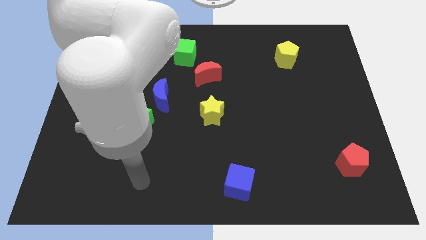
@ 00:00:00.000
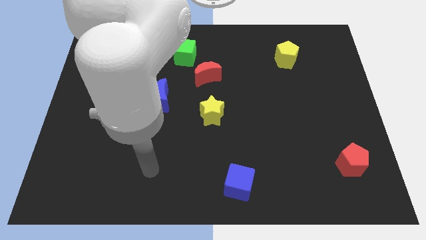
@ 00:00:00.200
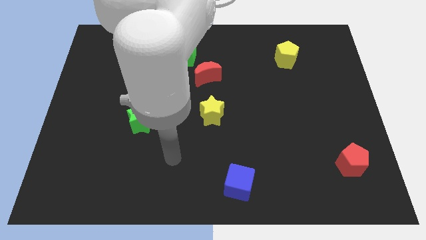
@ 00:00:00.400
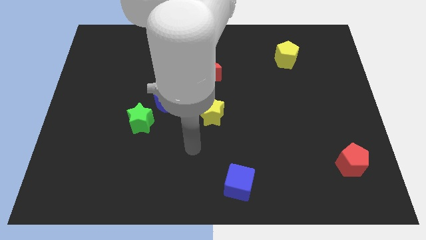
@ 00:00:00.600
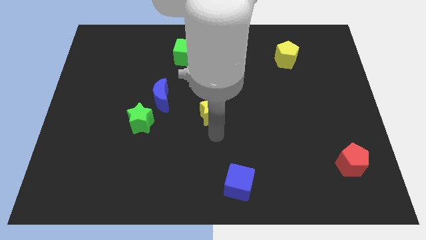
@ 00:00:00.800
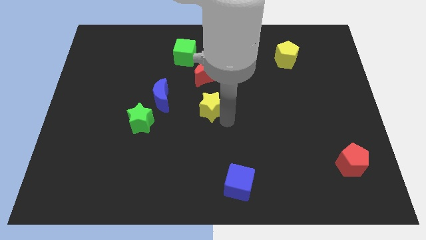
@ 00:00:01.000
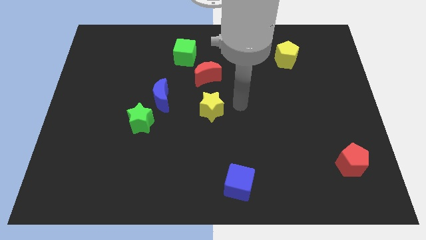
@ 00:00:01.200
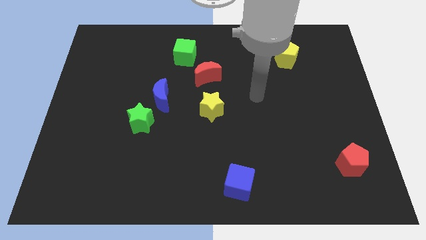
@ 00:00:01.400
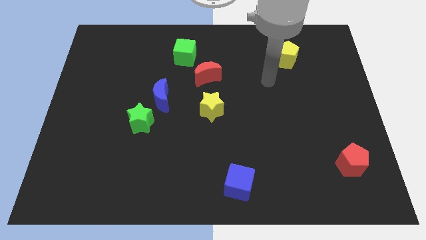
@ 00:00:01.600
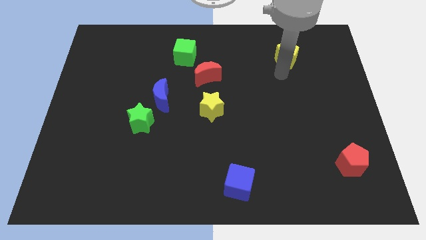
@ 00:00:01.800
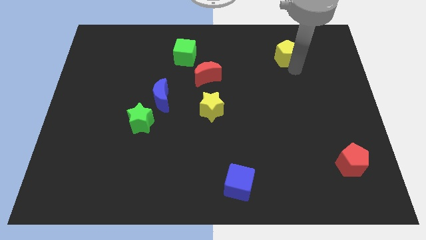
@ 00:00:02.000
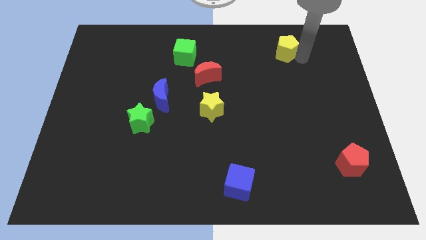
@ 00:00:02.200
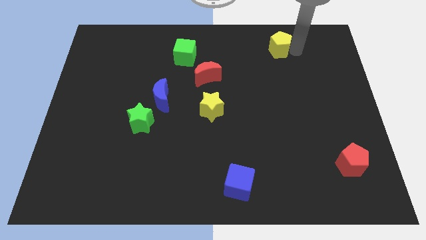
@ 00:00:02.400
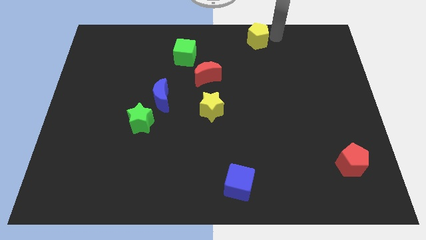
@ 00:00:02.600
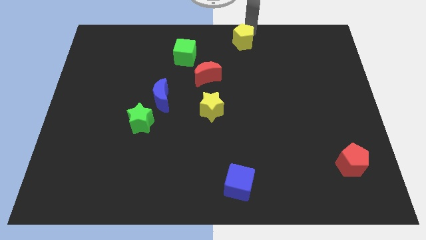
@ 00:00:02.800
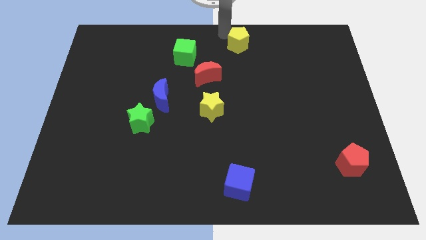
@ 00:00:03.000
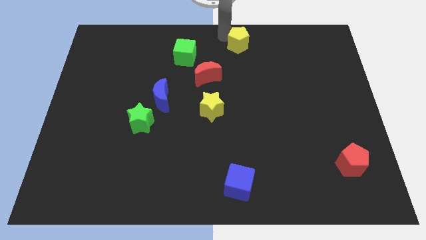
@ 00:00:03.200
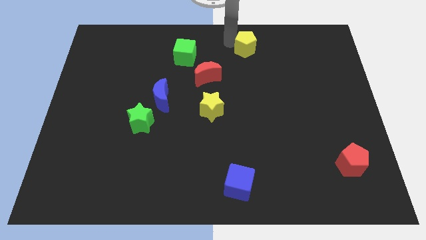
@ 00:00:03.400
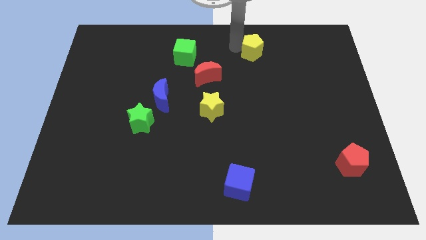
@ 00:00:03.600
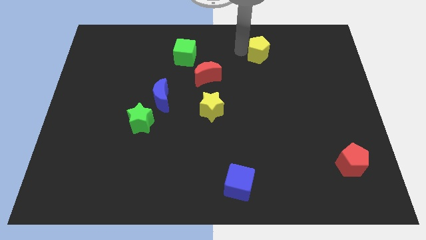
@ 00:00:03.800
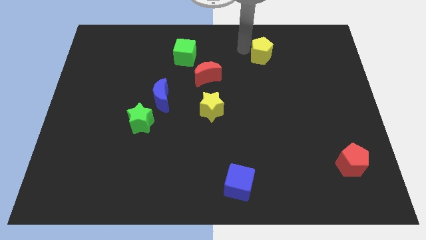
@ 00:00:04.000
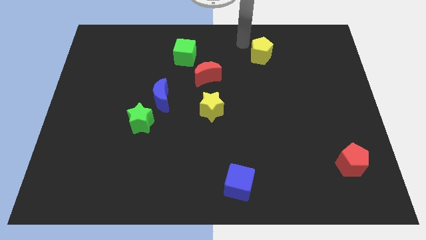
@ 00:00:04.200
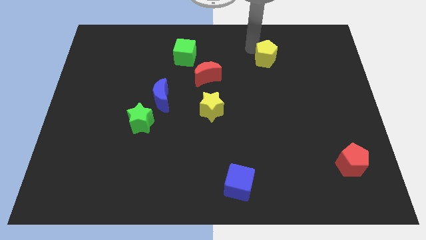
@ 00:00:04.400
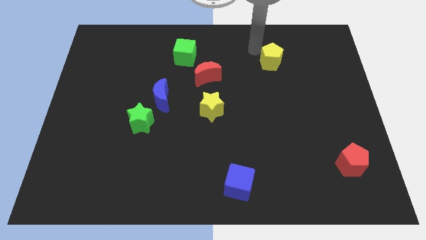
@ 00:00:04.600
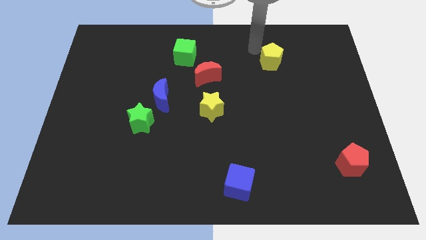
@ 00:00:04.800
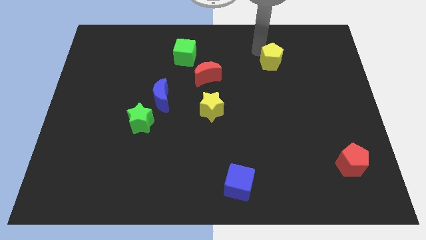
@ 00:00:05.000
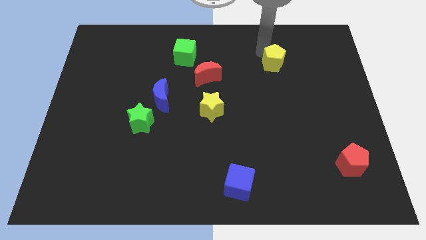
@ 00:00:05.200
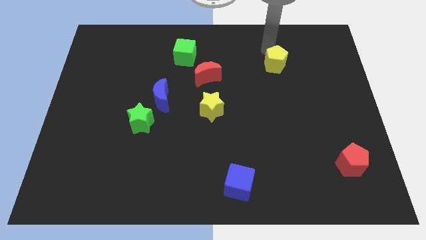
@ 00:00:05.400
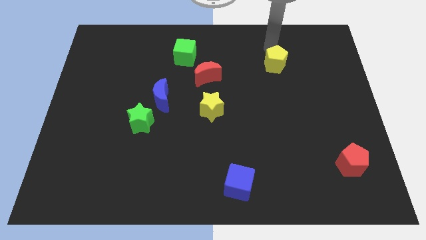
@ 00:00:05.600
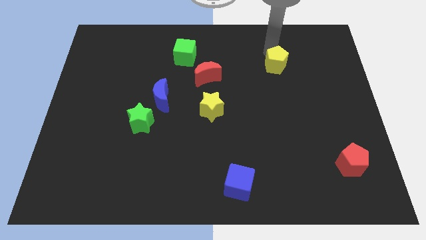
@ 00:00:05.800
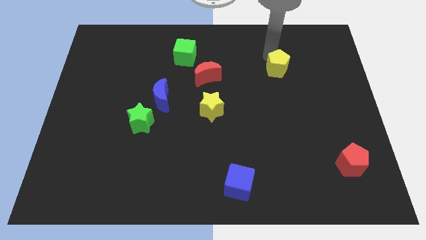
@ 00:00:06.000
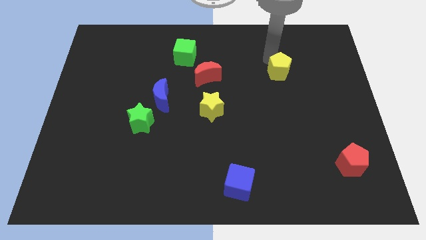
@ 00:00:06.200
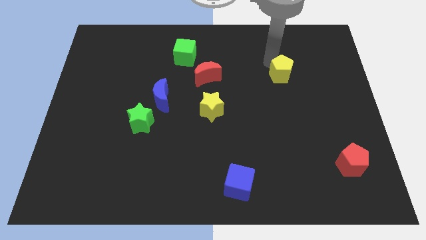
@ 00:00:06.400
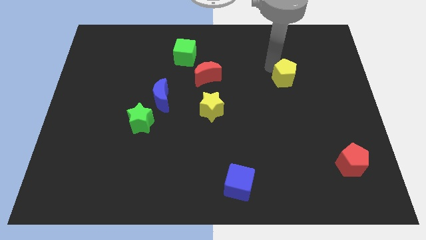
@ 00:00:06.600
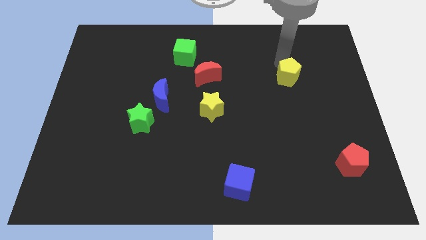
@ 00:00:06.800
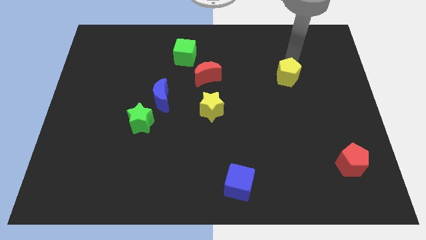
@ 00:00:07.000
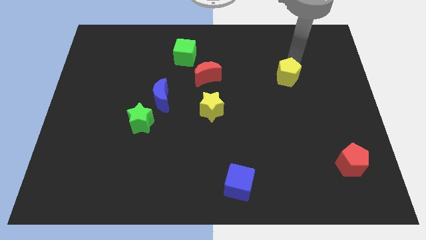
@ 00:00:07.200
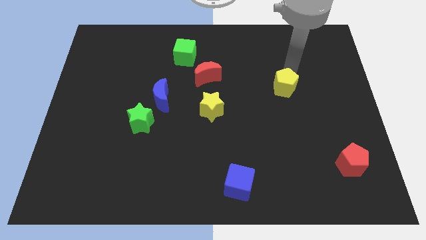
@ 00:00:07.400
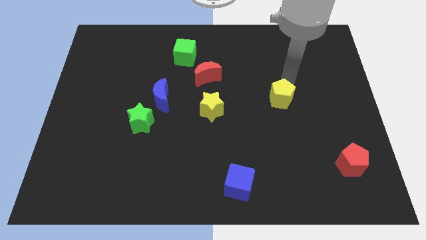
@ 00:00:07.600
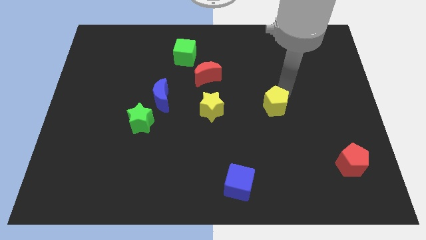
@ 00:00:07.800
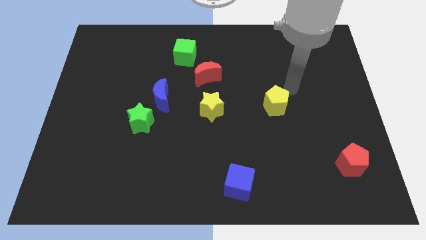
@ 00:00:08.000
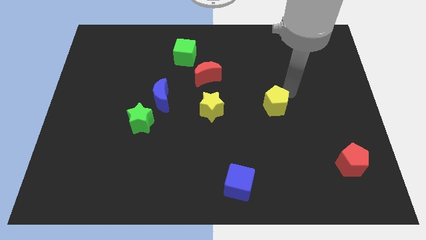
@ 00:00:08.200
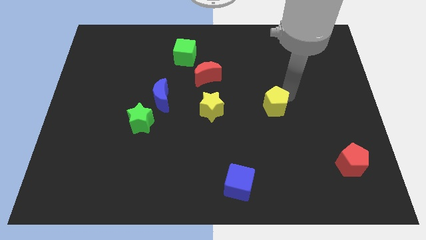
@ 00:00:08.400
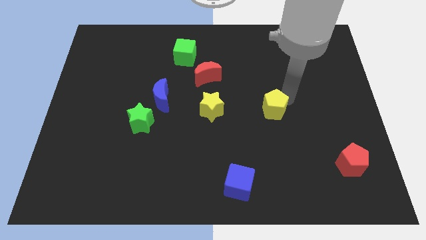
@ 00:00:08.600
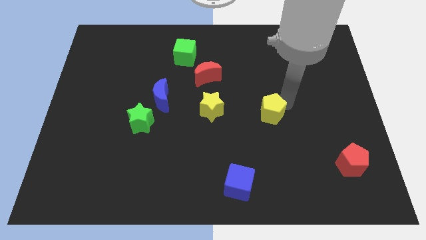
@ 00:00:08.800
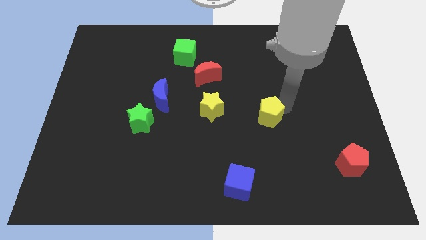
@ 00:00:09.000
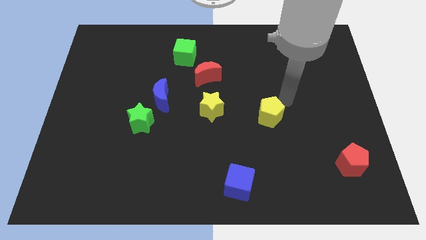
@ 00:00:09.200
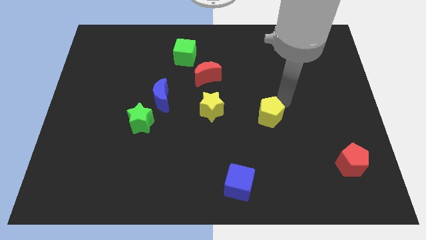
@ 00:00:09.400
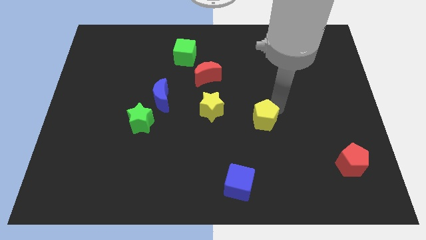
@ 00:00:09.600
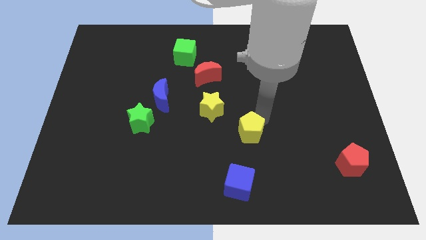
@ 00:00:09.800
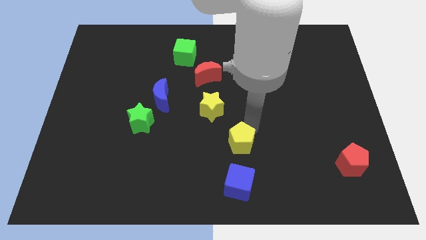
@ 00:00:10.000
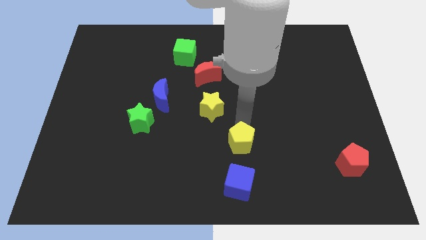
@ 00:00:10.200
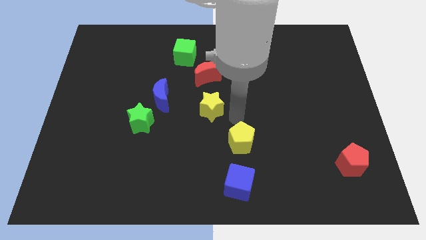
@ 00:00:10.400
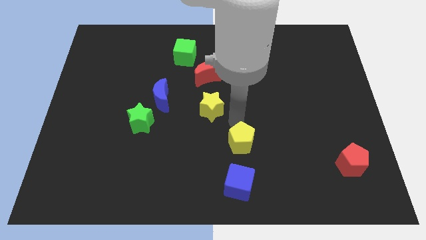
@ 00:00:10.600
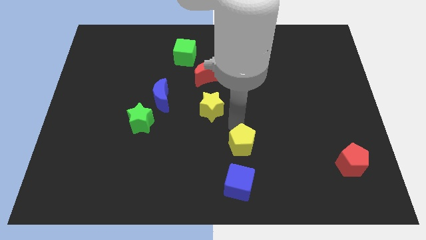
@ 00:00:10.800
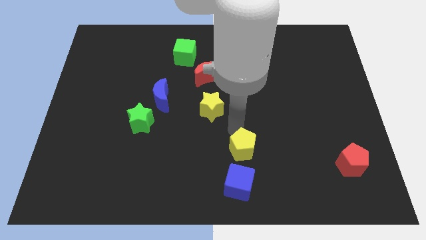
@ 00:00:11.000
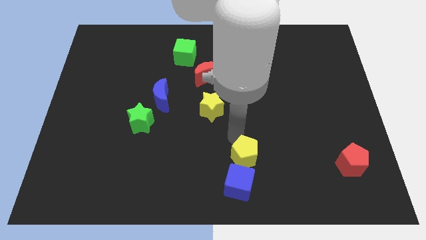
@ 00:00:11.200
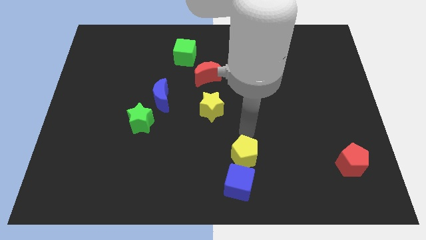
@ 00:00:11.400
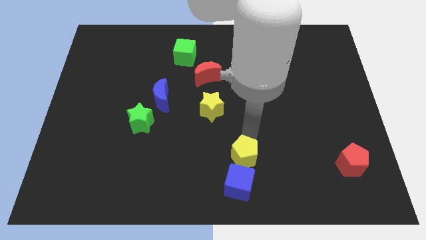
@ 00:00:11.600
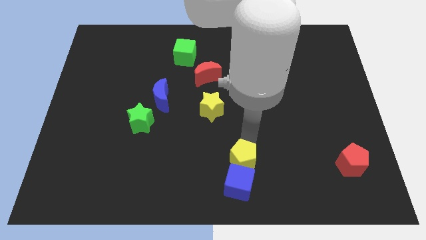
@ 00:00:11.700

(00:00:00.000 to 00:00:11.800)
put the yellow pentagon next to the blue cube
